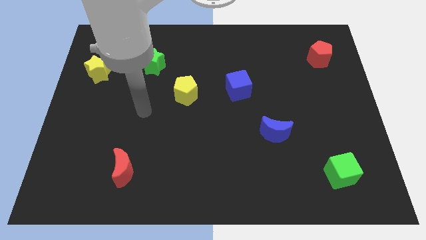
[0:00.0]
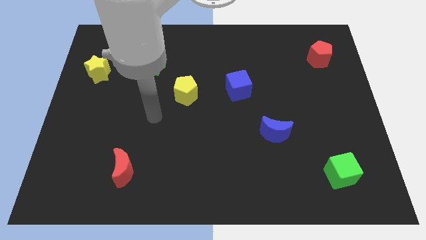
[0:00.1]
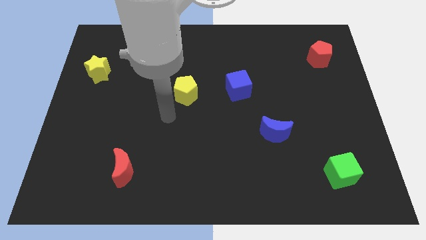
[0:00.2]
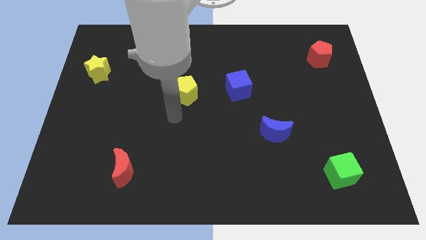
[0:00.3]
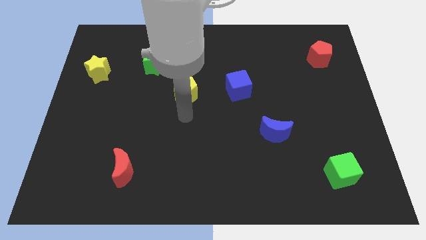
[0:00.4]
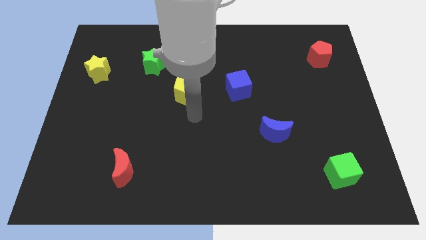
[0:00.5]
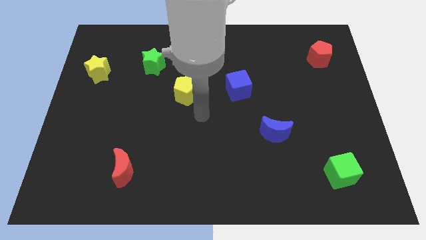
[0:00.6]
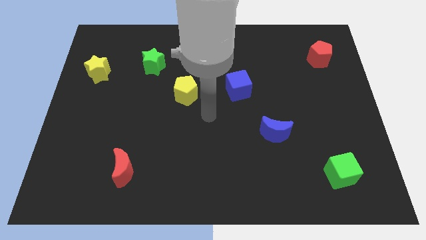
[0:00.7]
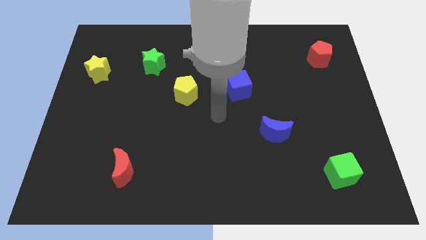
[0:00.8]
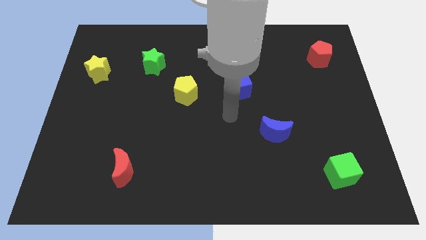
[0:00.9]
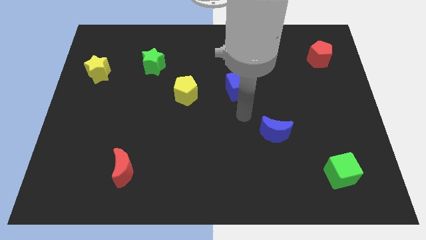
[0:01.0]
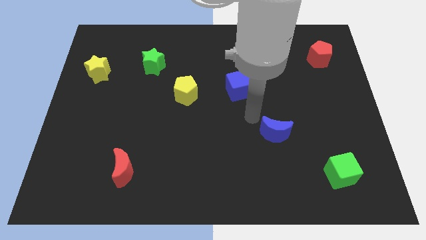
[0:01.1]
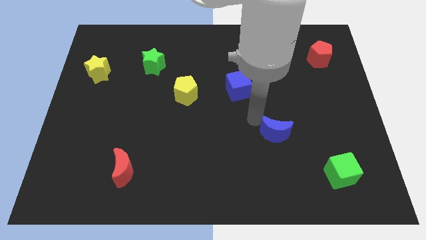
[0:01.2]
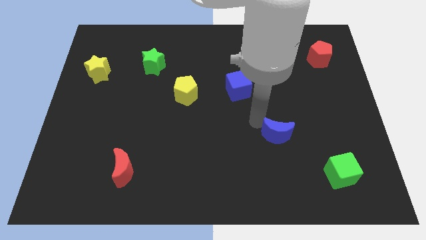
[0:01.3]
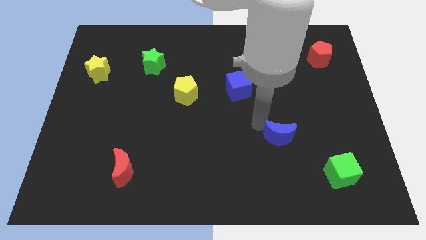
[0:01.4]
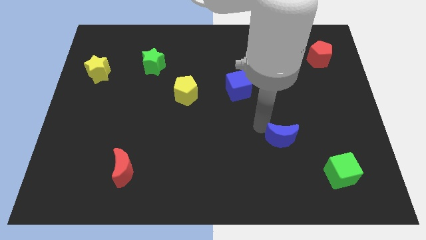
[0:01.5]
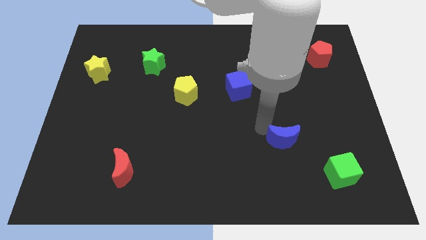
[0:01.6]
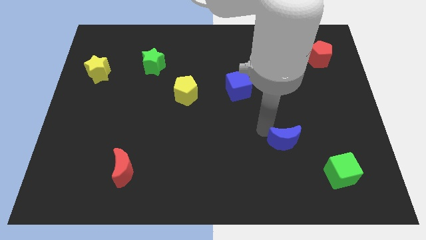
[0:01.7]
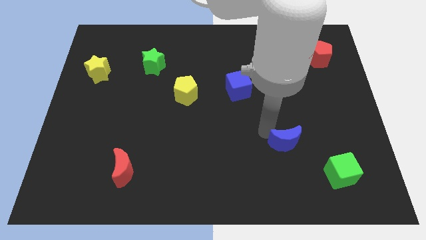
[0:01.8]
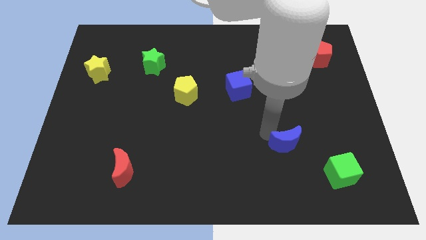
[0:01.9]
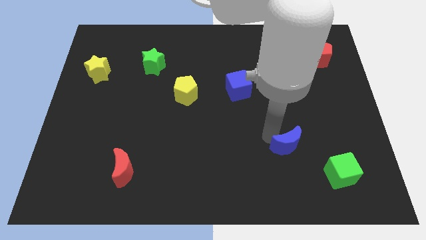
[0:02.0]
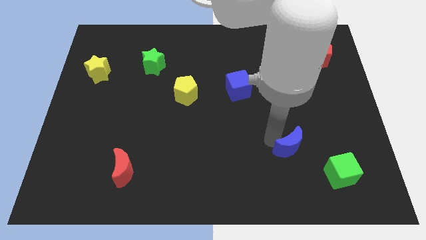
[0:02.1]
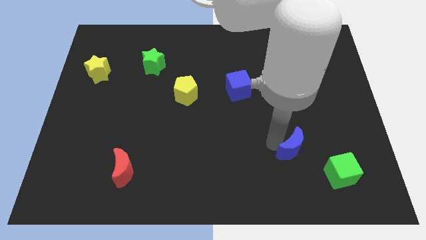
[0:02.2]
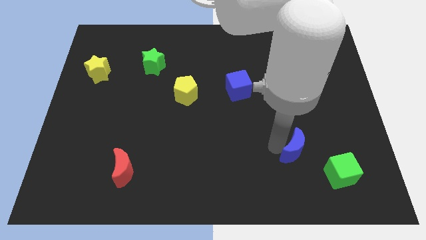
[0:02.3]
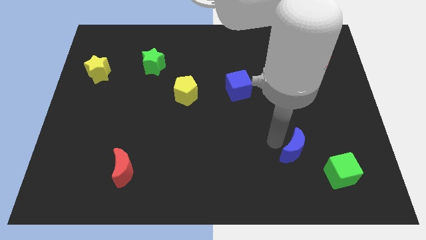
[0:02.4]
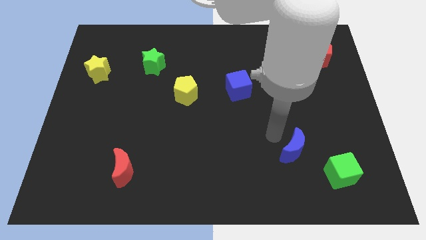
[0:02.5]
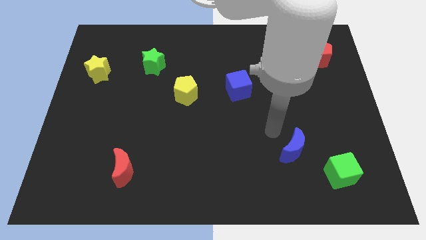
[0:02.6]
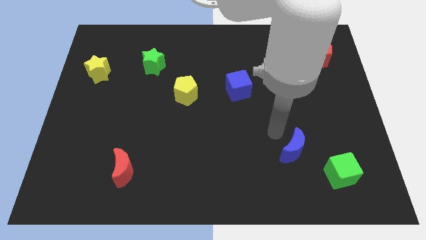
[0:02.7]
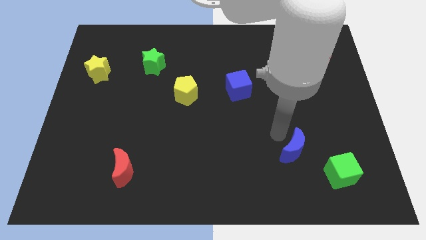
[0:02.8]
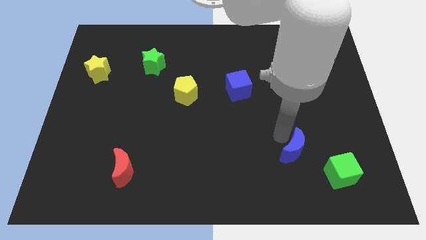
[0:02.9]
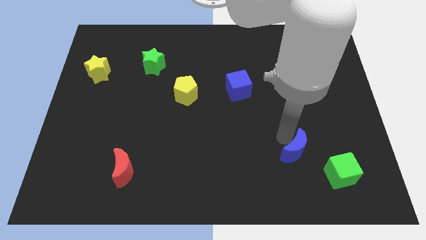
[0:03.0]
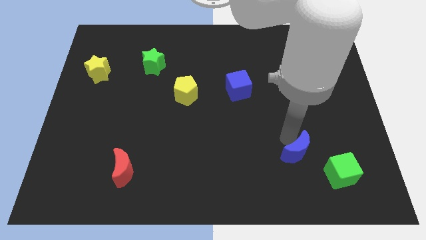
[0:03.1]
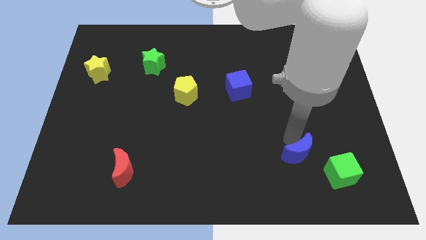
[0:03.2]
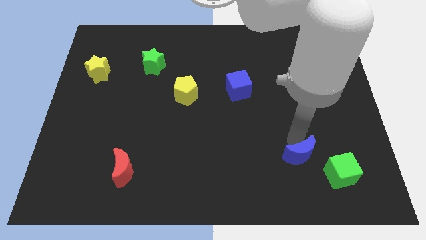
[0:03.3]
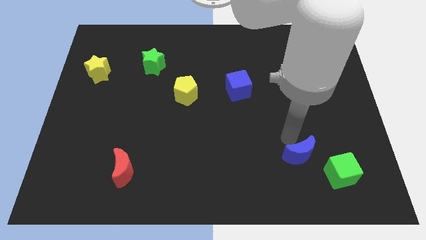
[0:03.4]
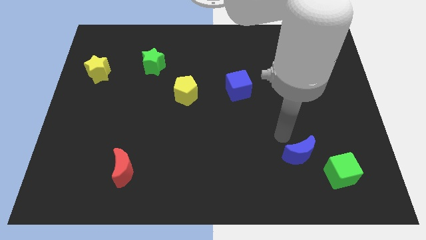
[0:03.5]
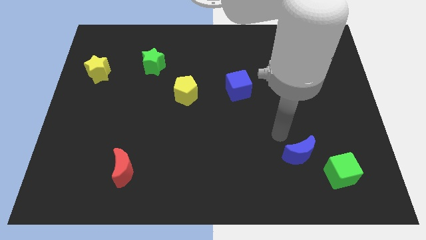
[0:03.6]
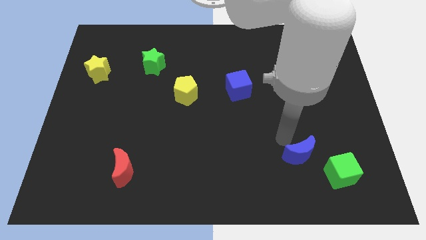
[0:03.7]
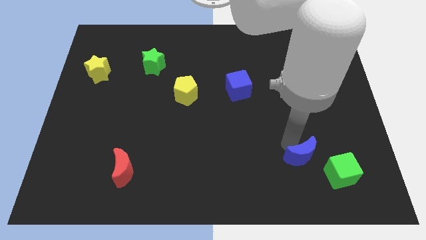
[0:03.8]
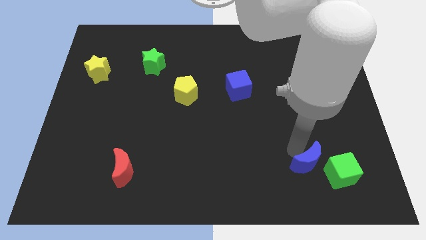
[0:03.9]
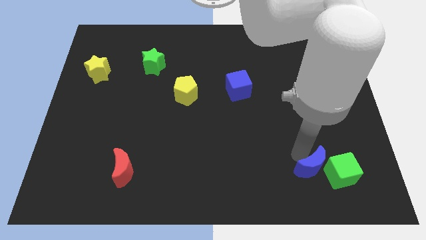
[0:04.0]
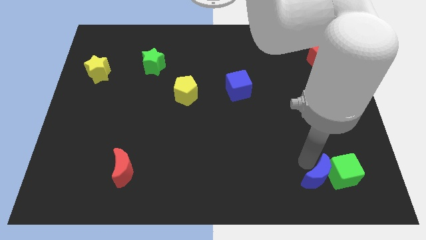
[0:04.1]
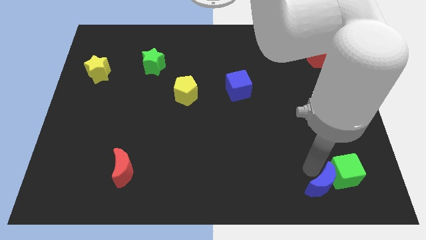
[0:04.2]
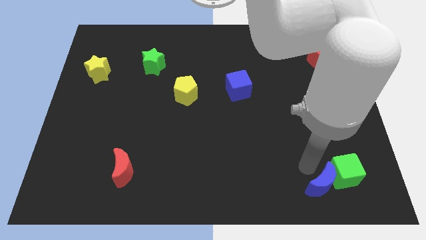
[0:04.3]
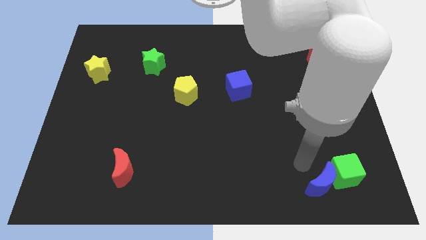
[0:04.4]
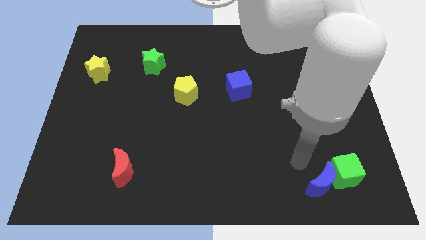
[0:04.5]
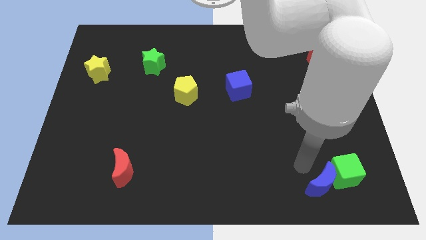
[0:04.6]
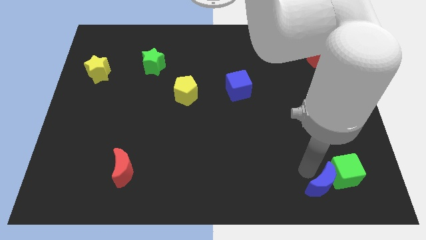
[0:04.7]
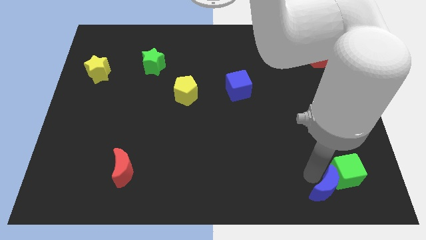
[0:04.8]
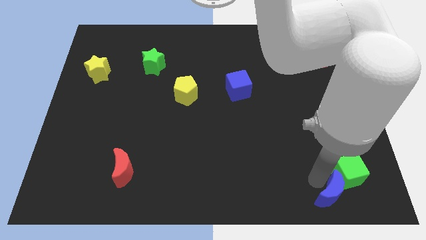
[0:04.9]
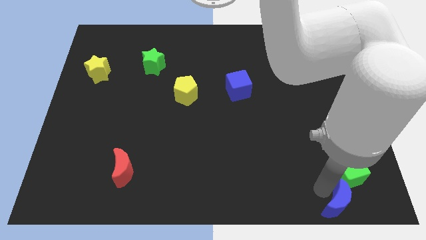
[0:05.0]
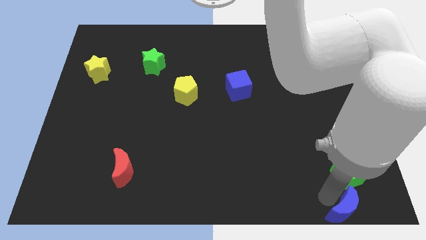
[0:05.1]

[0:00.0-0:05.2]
push the blue moon to the bottom right corner
